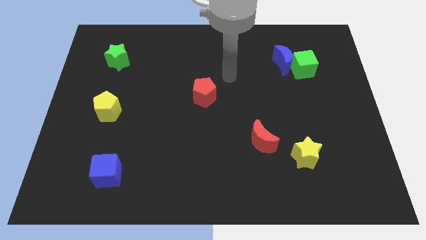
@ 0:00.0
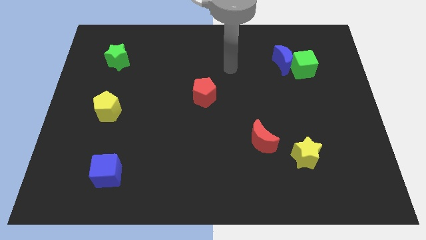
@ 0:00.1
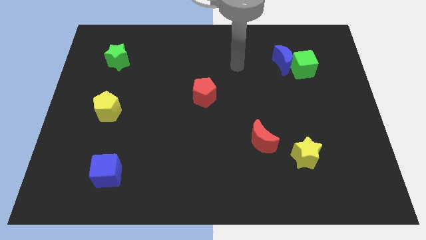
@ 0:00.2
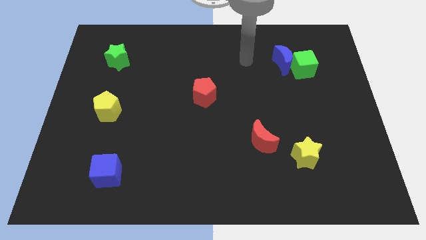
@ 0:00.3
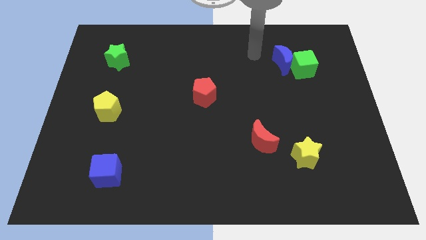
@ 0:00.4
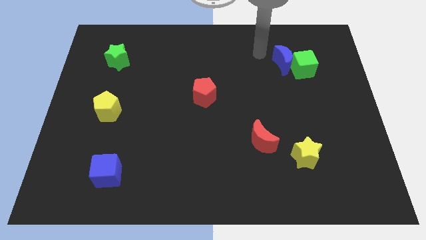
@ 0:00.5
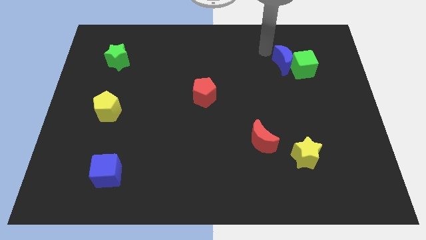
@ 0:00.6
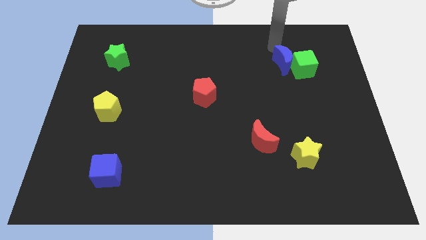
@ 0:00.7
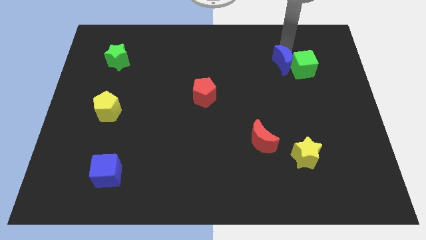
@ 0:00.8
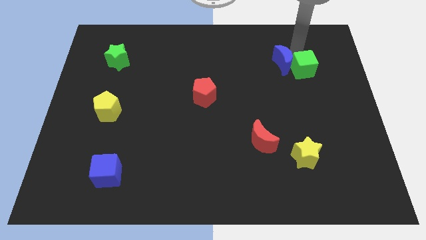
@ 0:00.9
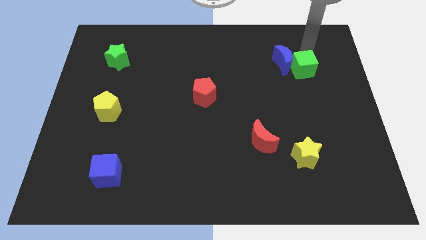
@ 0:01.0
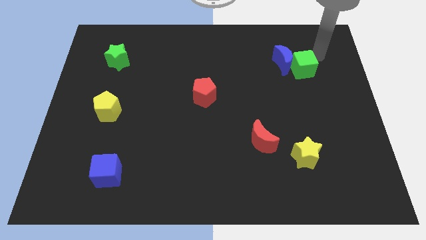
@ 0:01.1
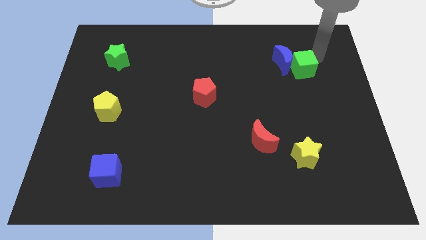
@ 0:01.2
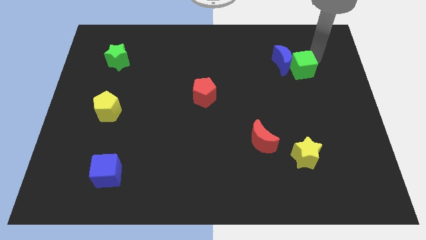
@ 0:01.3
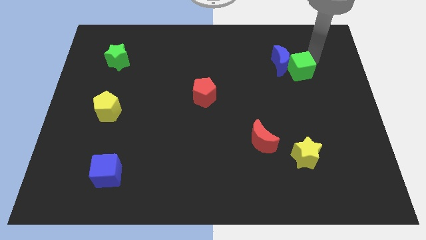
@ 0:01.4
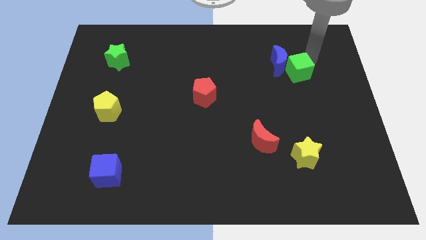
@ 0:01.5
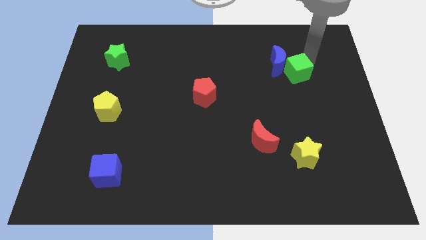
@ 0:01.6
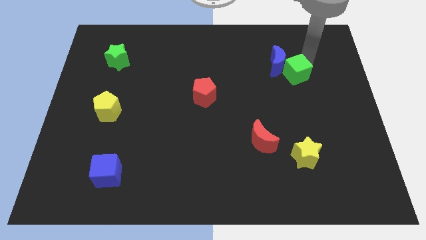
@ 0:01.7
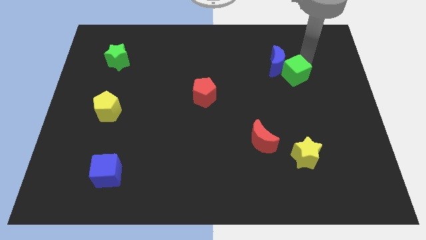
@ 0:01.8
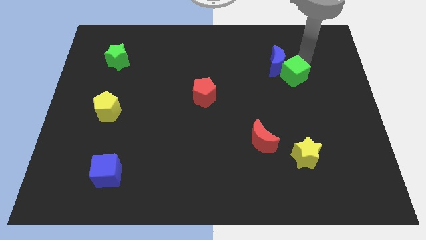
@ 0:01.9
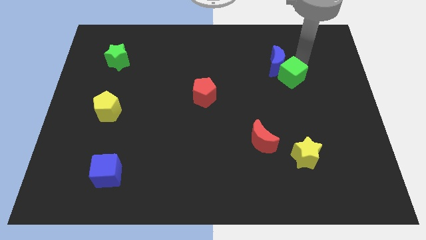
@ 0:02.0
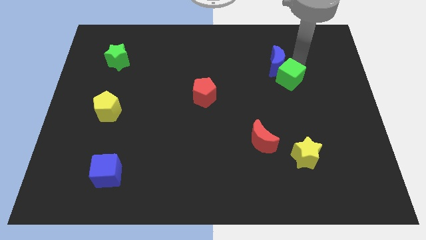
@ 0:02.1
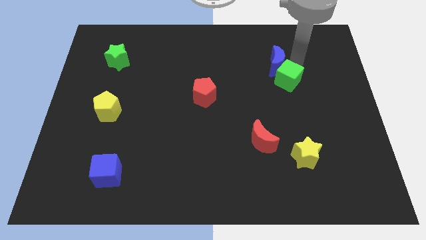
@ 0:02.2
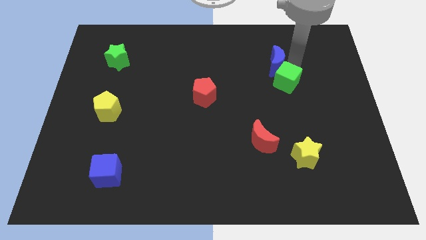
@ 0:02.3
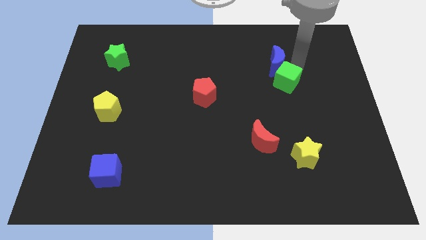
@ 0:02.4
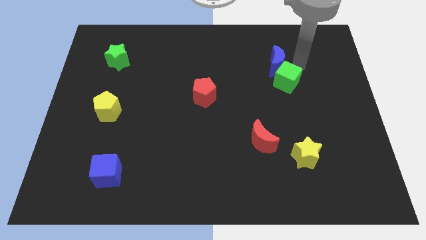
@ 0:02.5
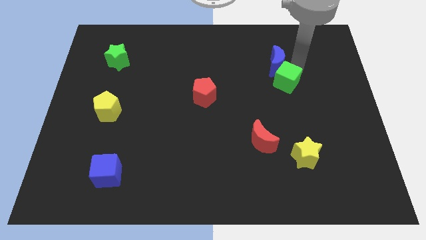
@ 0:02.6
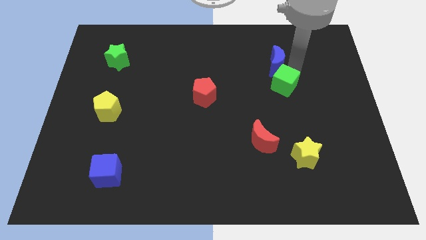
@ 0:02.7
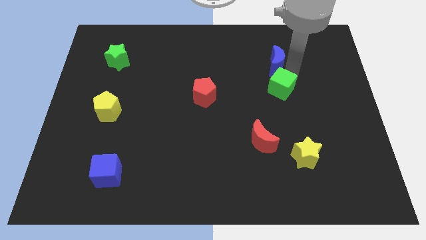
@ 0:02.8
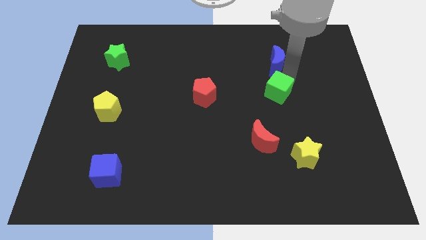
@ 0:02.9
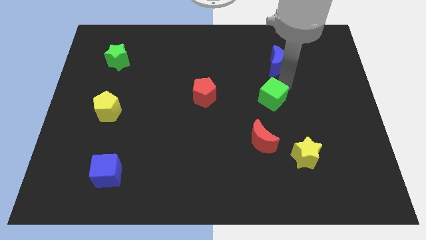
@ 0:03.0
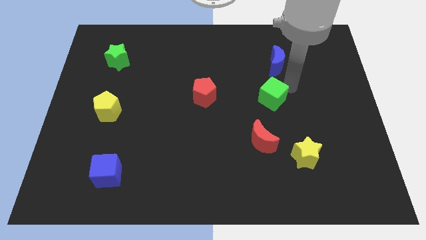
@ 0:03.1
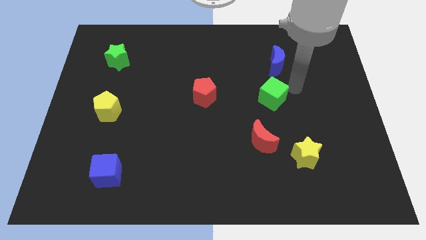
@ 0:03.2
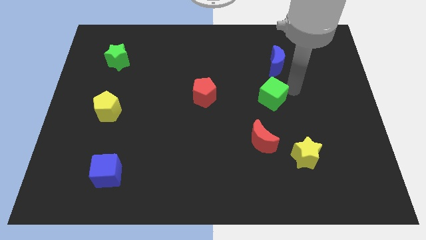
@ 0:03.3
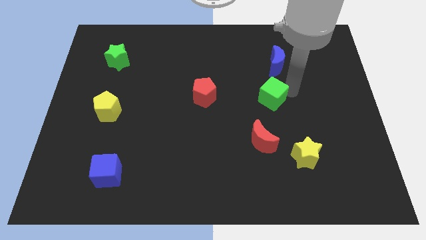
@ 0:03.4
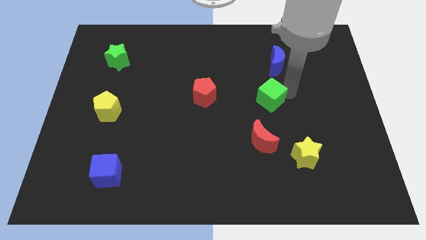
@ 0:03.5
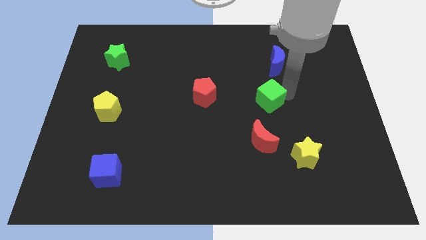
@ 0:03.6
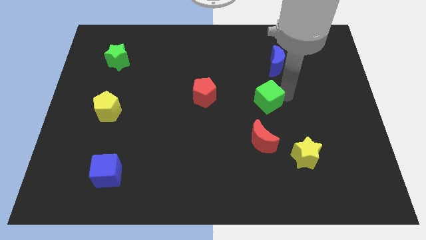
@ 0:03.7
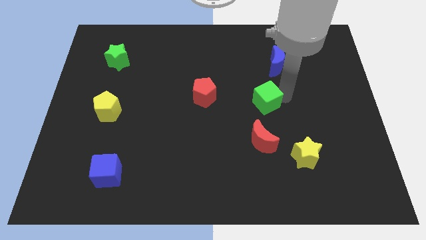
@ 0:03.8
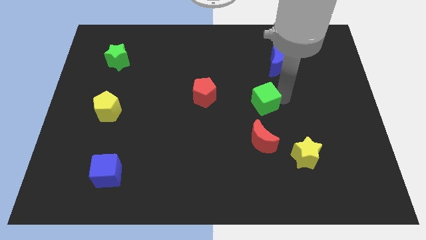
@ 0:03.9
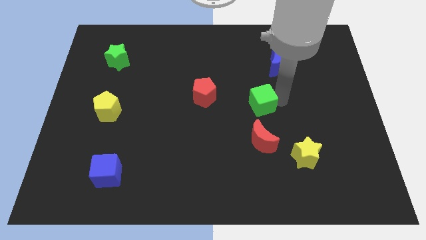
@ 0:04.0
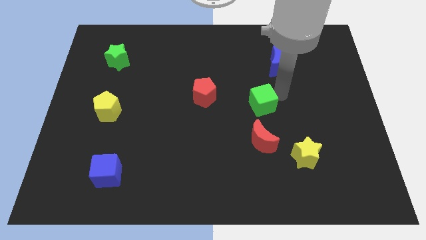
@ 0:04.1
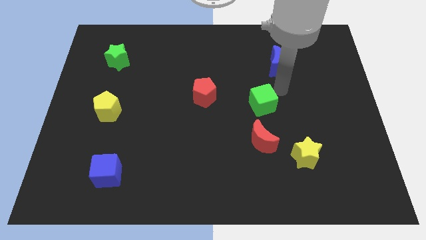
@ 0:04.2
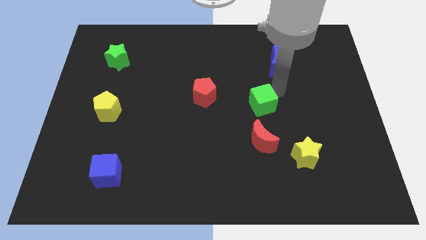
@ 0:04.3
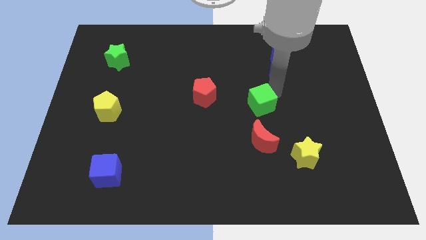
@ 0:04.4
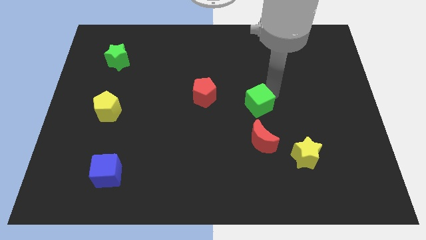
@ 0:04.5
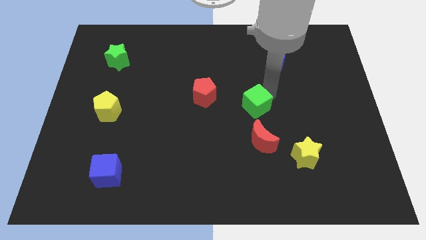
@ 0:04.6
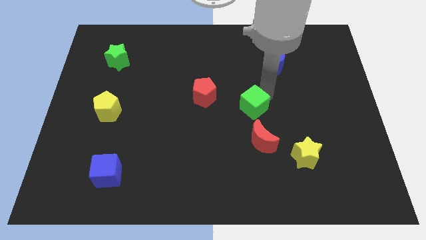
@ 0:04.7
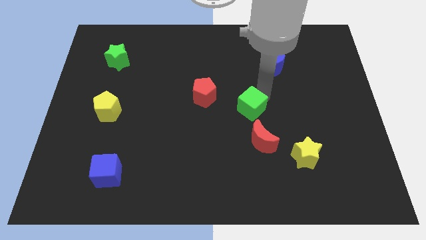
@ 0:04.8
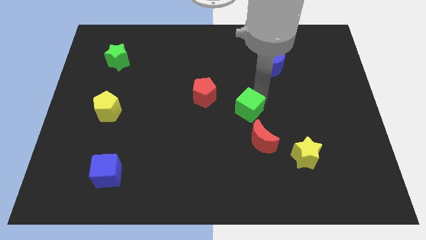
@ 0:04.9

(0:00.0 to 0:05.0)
slide the green cube downwards and left diagonally

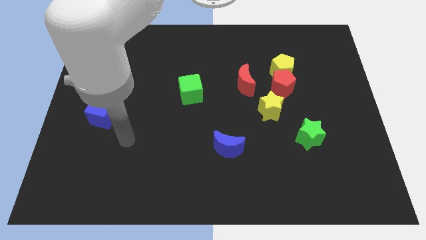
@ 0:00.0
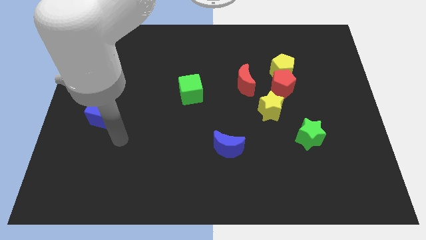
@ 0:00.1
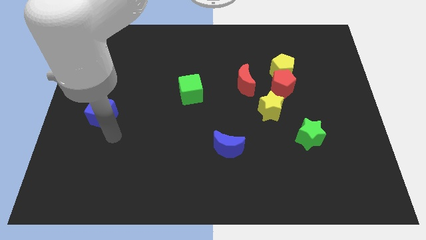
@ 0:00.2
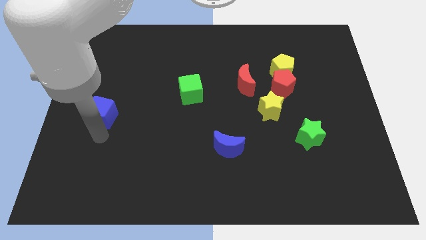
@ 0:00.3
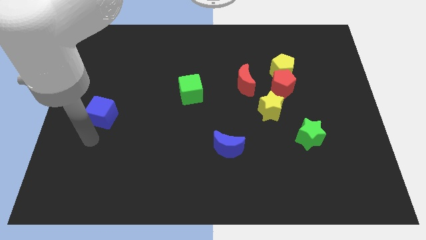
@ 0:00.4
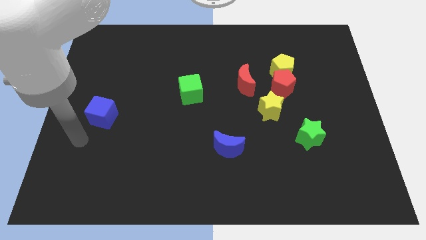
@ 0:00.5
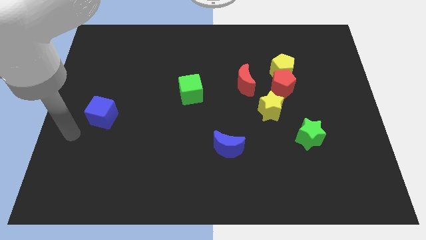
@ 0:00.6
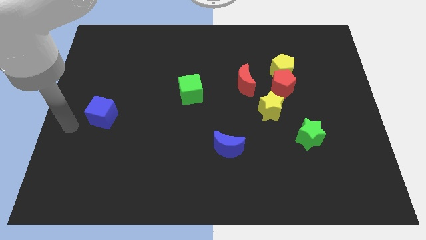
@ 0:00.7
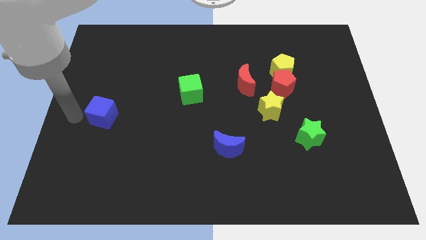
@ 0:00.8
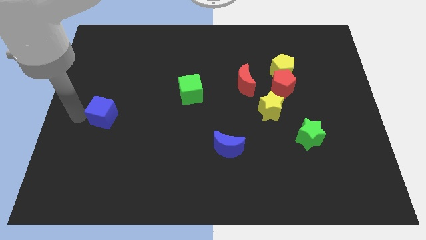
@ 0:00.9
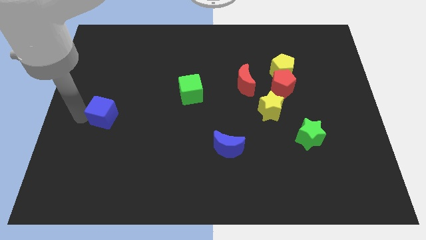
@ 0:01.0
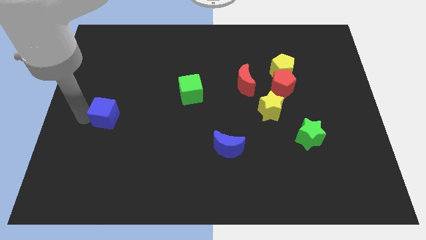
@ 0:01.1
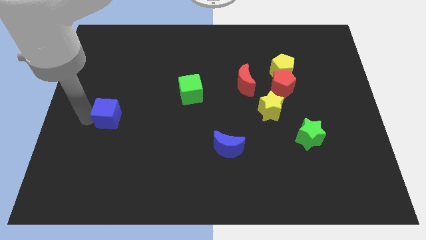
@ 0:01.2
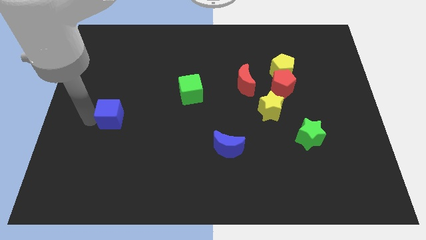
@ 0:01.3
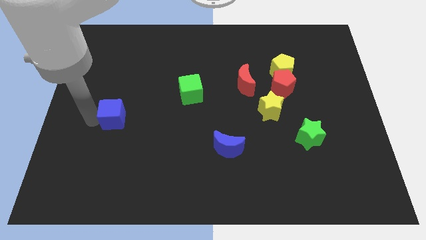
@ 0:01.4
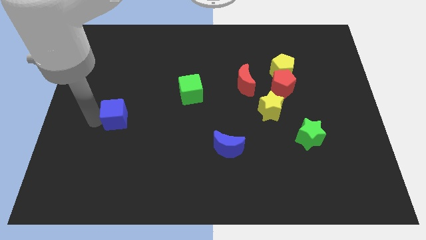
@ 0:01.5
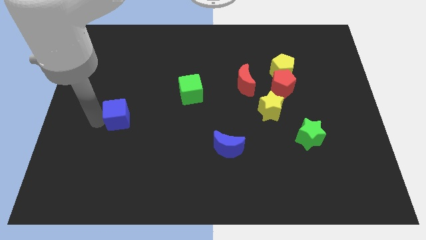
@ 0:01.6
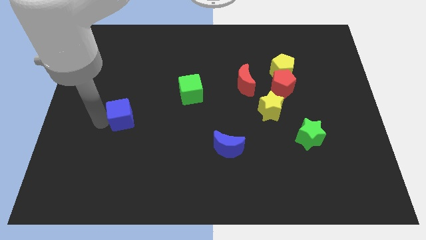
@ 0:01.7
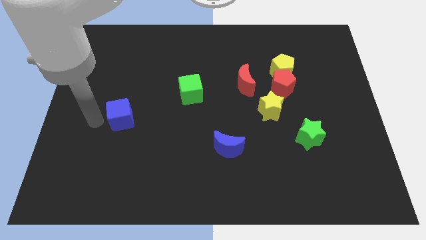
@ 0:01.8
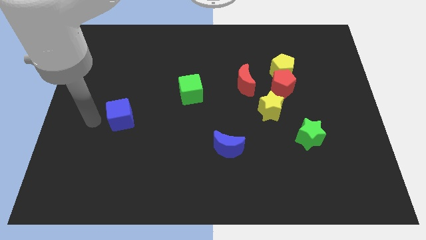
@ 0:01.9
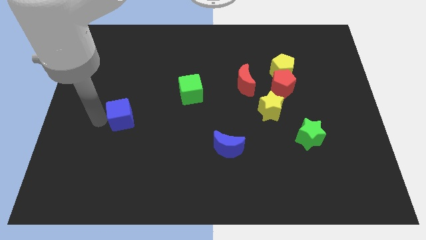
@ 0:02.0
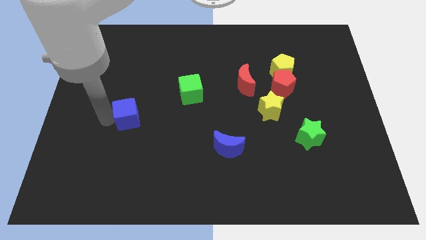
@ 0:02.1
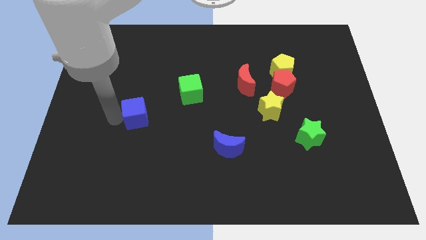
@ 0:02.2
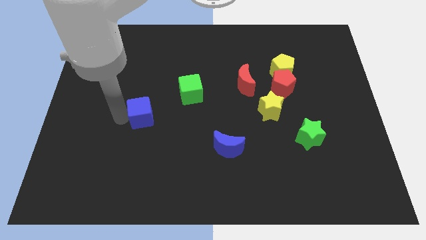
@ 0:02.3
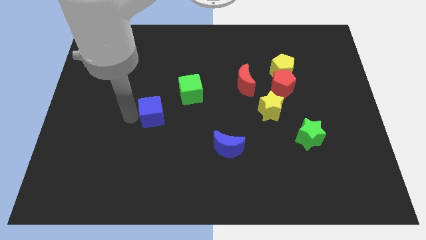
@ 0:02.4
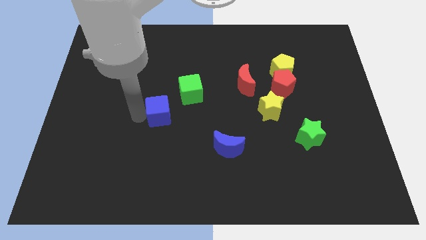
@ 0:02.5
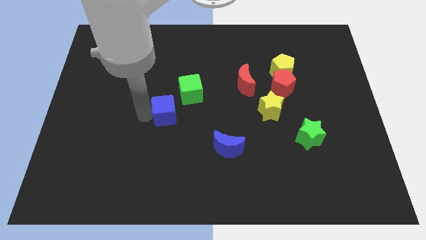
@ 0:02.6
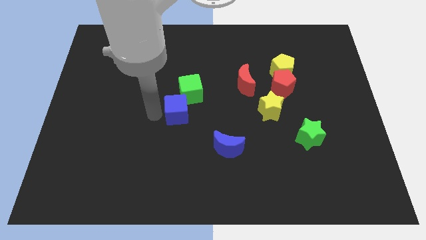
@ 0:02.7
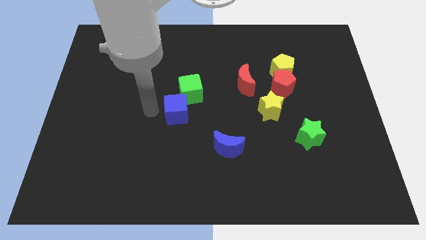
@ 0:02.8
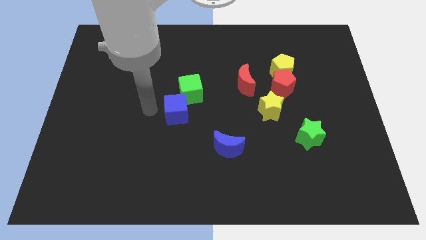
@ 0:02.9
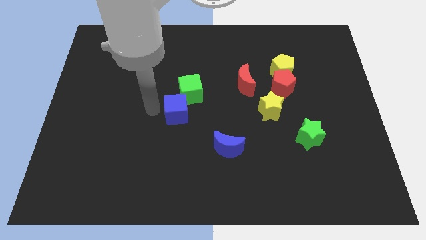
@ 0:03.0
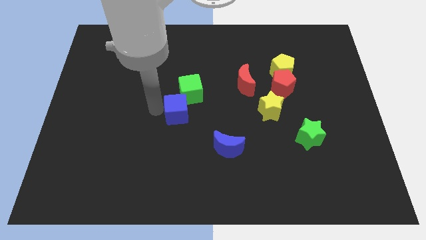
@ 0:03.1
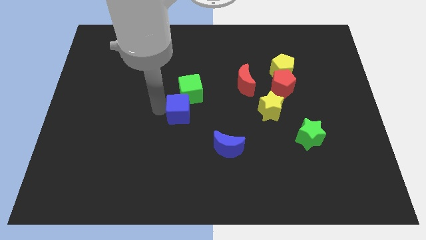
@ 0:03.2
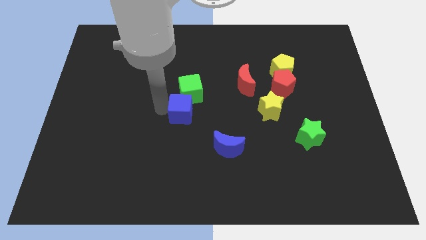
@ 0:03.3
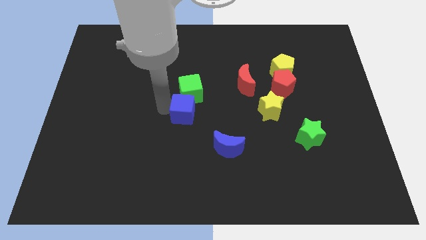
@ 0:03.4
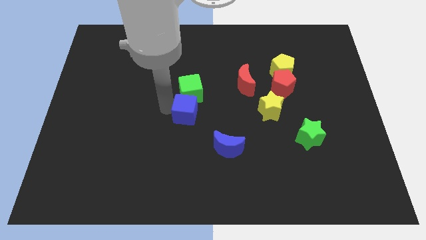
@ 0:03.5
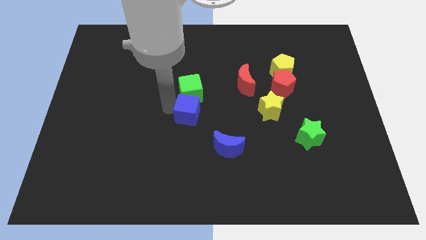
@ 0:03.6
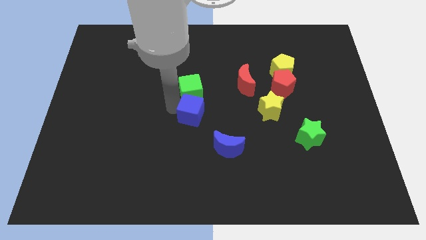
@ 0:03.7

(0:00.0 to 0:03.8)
push the blue cube to the right
